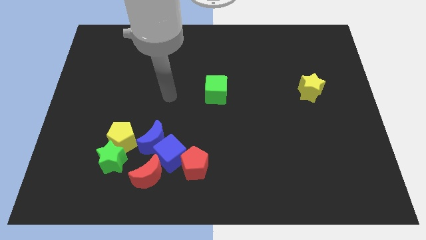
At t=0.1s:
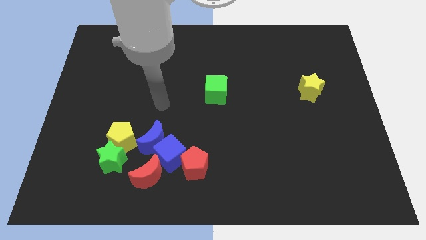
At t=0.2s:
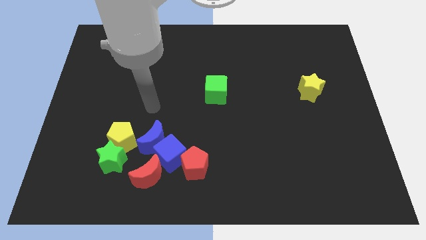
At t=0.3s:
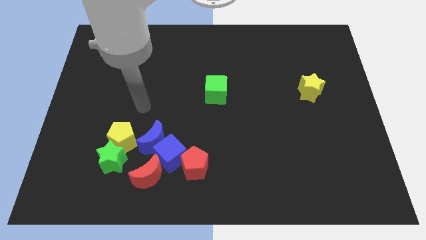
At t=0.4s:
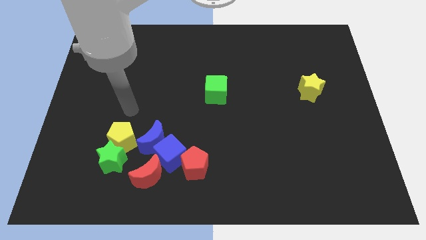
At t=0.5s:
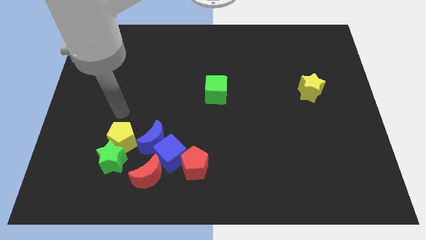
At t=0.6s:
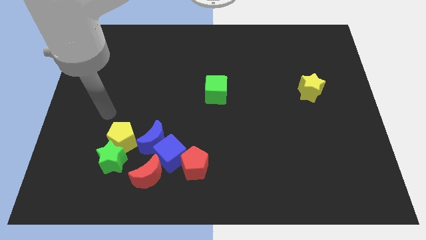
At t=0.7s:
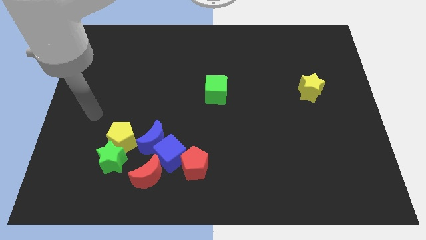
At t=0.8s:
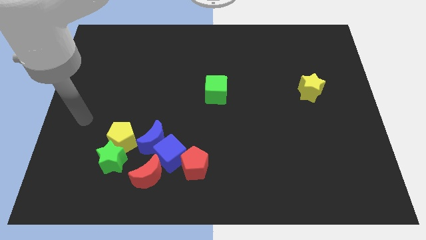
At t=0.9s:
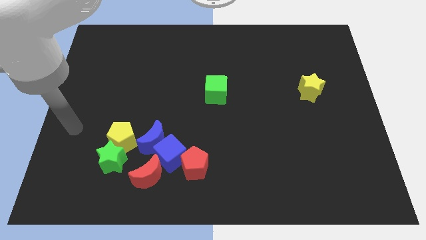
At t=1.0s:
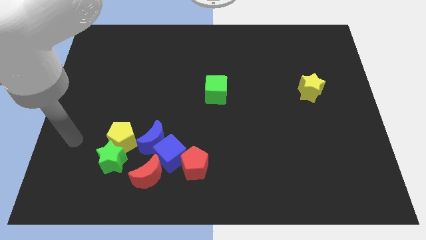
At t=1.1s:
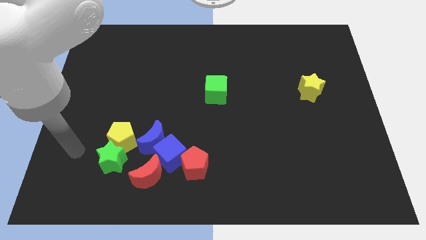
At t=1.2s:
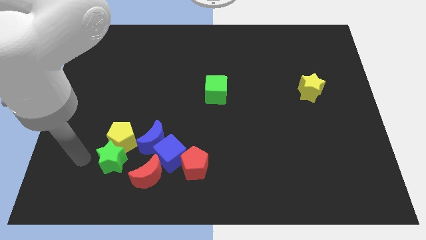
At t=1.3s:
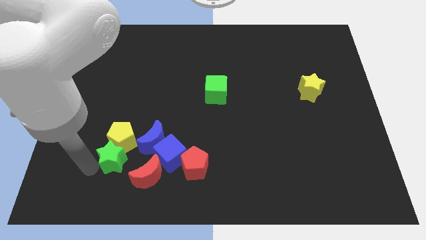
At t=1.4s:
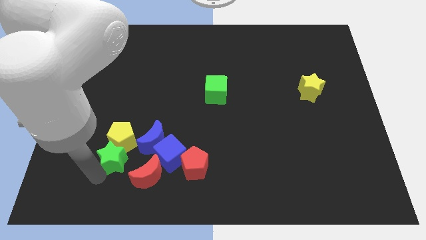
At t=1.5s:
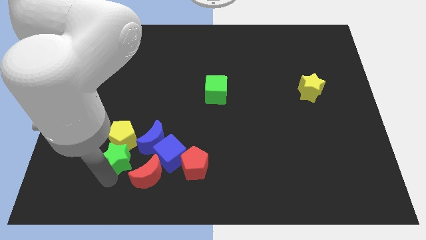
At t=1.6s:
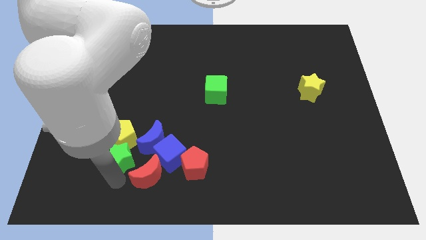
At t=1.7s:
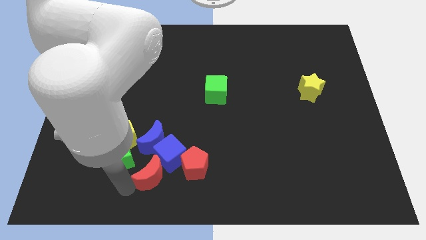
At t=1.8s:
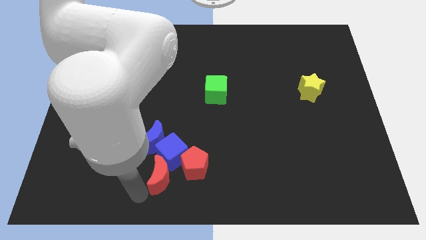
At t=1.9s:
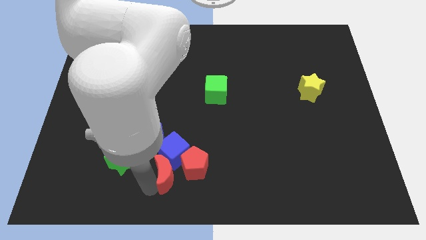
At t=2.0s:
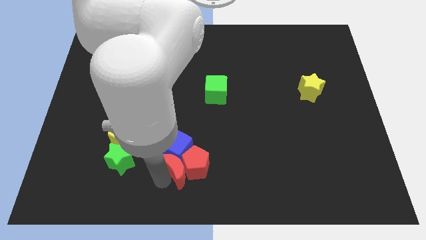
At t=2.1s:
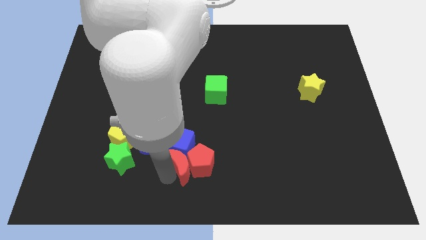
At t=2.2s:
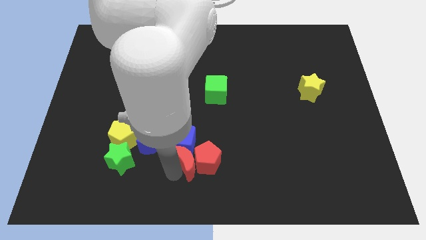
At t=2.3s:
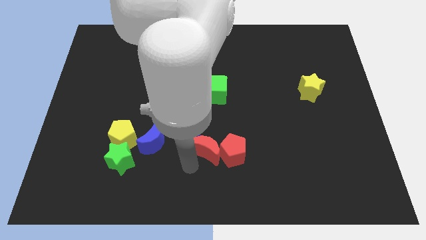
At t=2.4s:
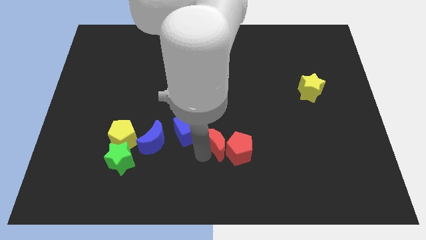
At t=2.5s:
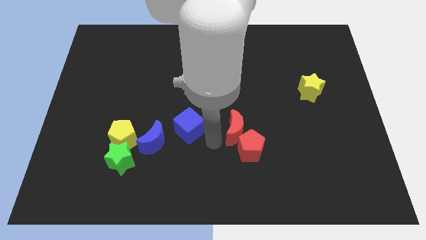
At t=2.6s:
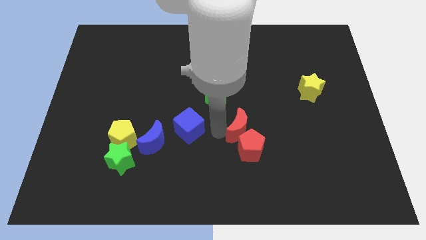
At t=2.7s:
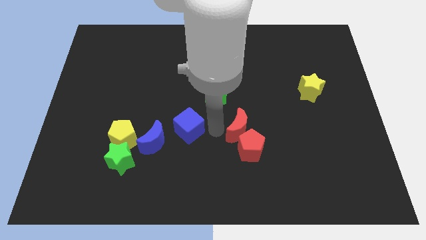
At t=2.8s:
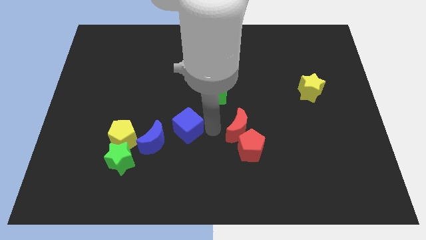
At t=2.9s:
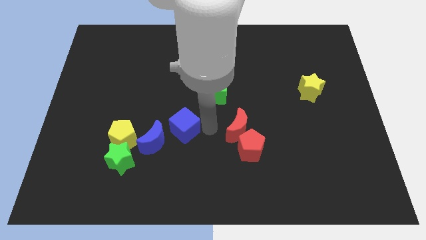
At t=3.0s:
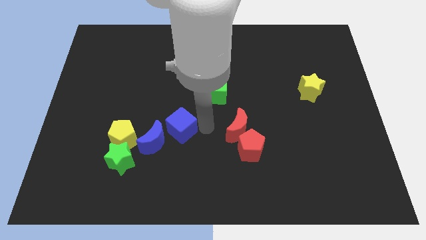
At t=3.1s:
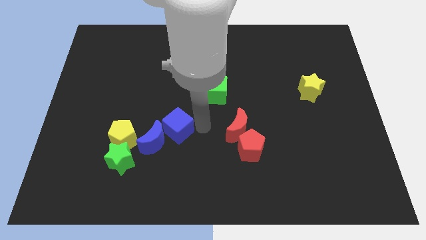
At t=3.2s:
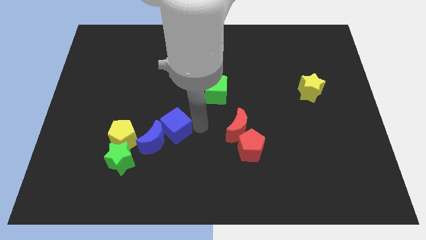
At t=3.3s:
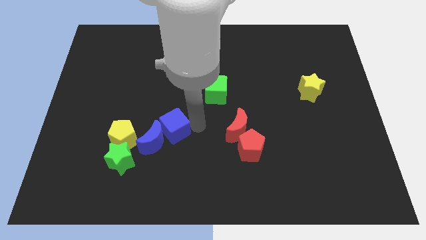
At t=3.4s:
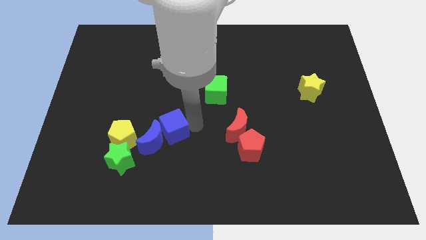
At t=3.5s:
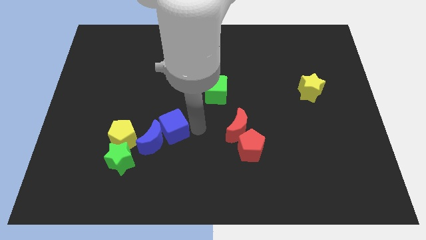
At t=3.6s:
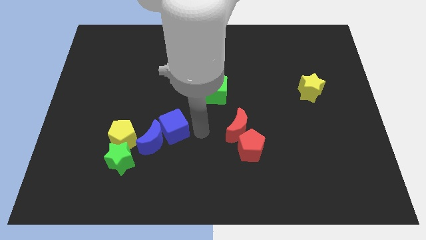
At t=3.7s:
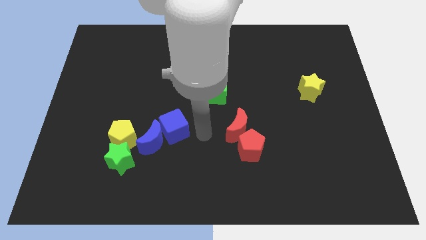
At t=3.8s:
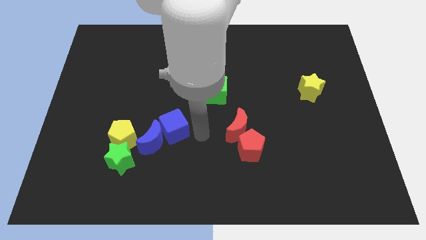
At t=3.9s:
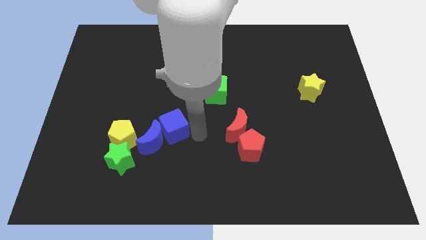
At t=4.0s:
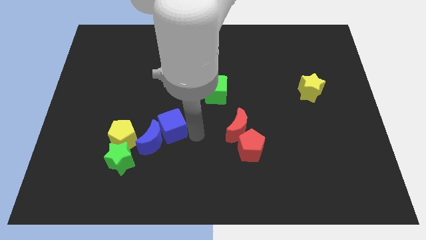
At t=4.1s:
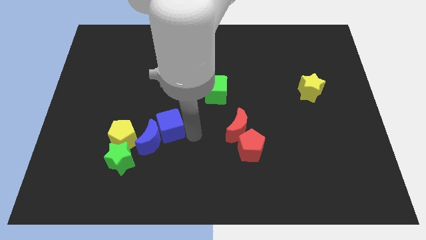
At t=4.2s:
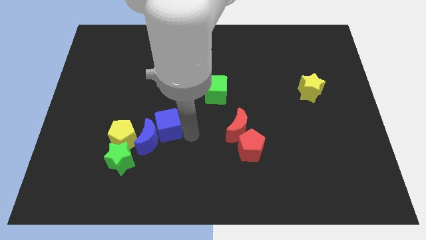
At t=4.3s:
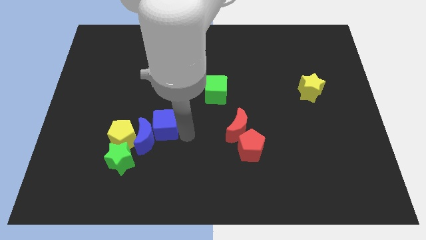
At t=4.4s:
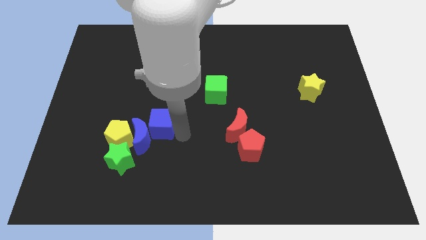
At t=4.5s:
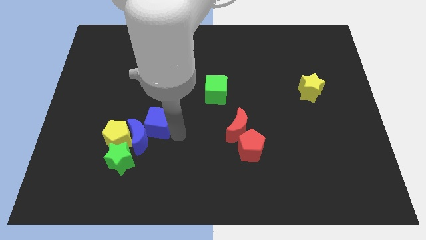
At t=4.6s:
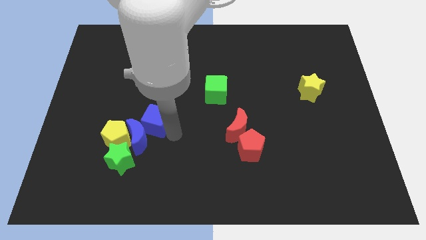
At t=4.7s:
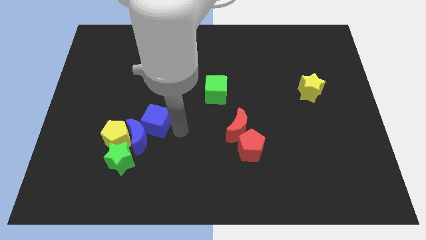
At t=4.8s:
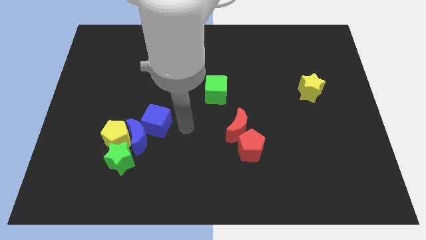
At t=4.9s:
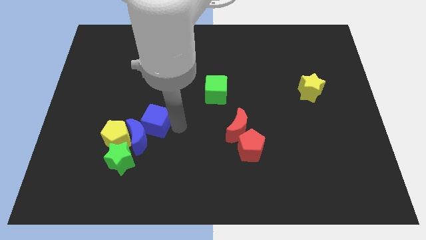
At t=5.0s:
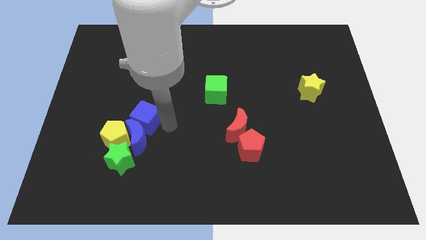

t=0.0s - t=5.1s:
put the blue cube to the top left of the blue moon

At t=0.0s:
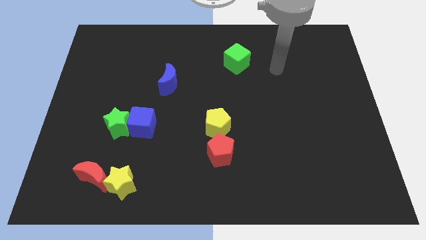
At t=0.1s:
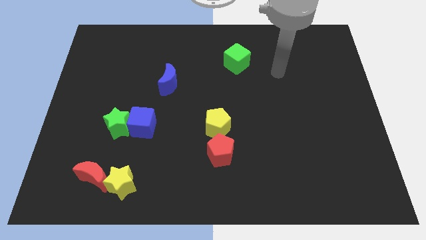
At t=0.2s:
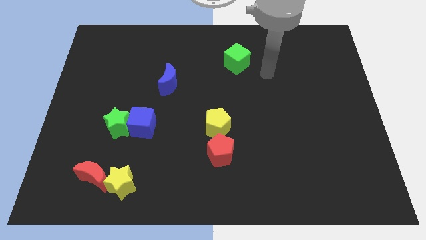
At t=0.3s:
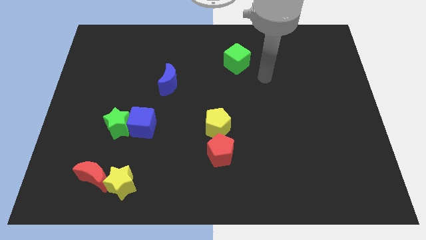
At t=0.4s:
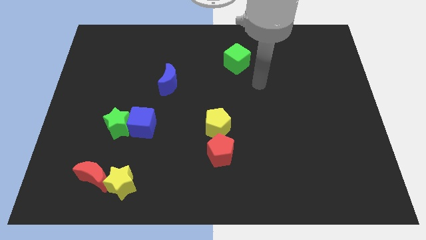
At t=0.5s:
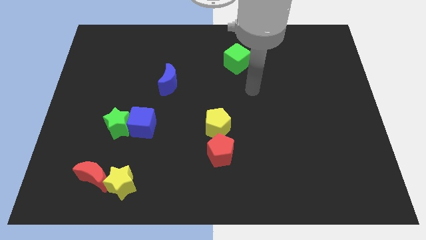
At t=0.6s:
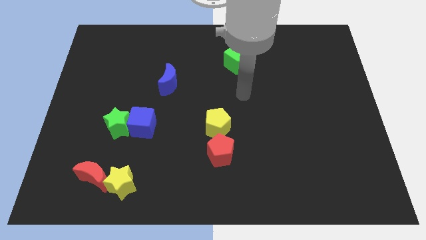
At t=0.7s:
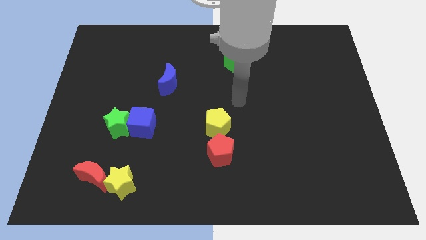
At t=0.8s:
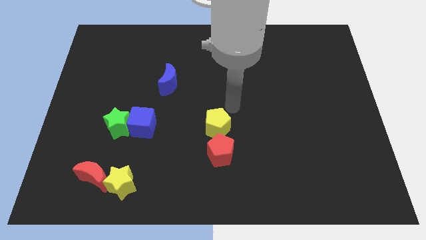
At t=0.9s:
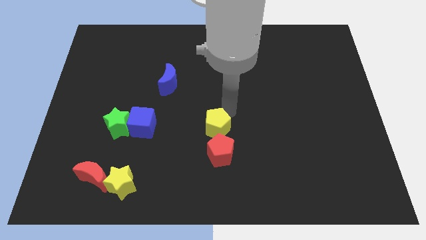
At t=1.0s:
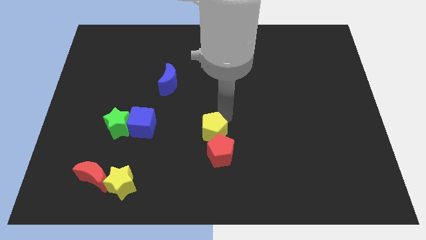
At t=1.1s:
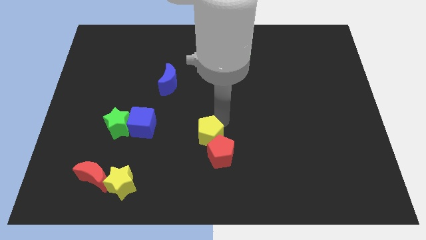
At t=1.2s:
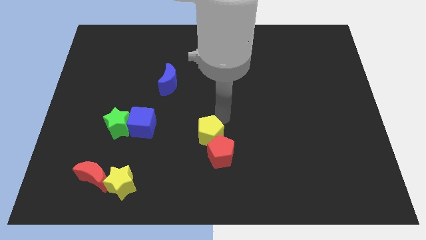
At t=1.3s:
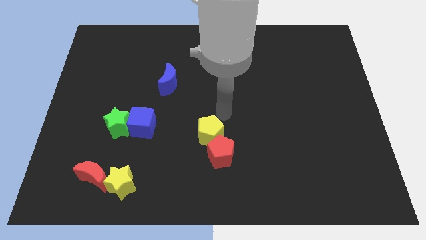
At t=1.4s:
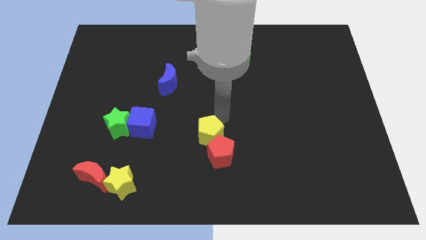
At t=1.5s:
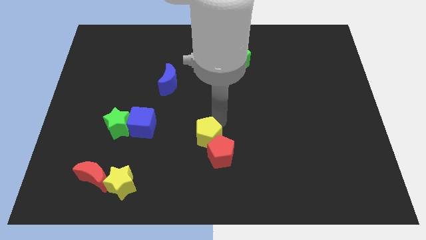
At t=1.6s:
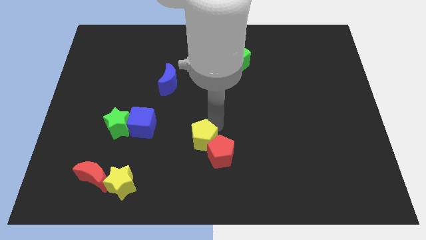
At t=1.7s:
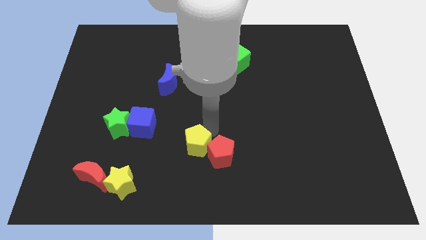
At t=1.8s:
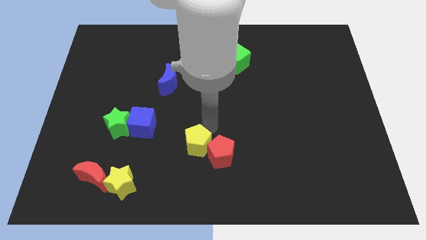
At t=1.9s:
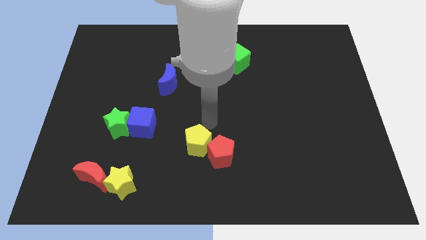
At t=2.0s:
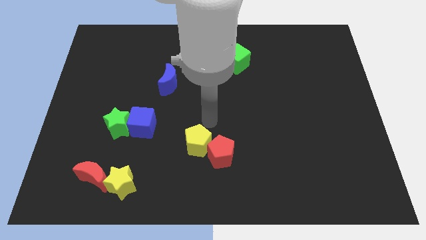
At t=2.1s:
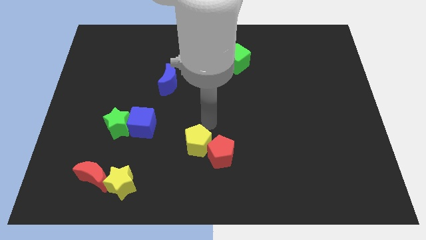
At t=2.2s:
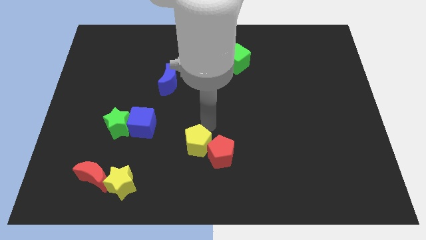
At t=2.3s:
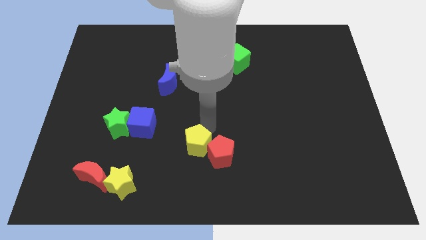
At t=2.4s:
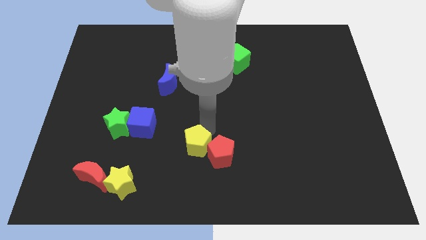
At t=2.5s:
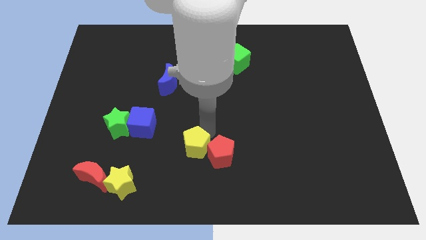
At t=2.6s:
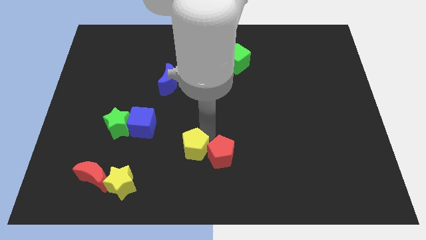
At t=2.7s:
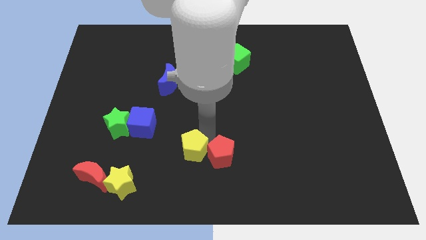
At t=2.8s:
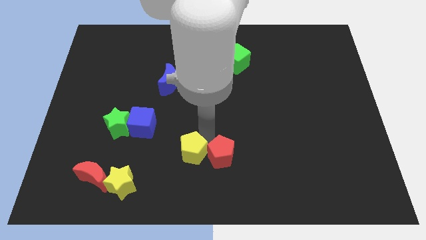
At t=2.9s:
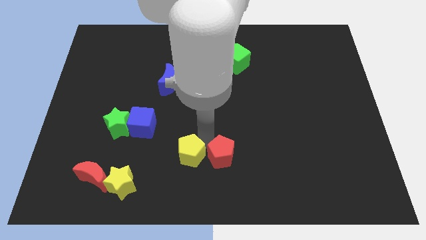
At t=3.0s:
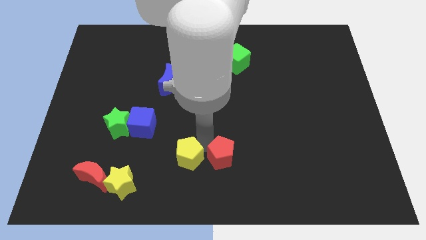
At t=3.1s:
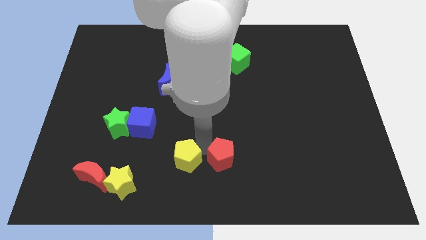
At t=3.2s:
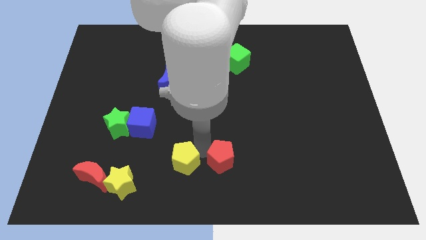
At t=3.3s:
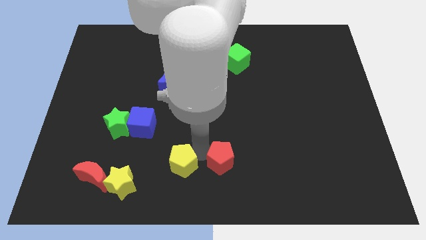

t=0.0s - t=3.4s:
push the yellow pentagon to the right side of the yellow star
